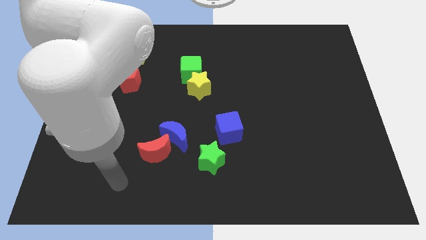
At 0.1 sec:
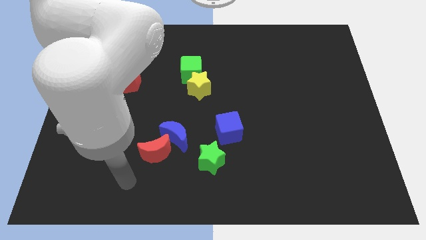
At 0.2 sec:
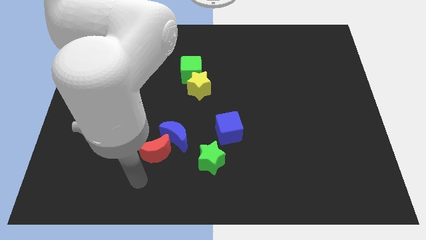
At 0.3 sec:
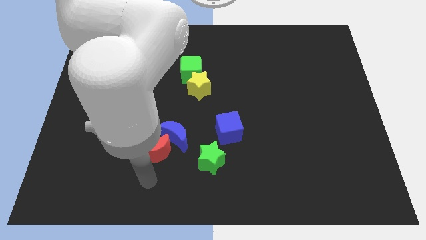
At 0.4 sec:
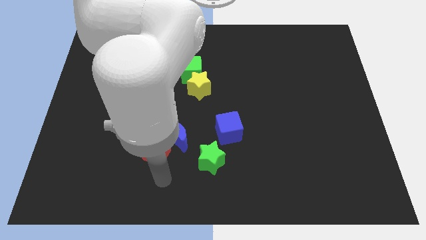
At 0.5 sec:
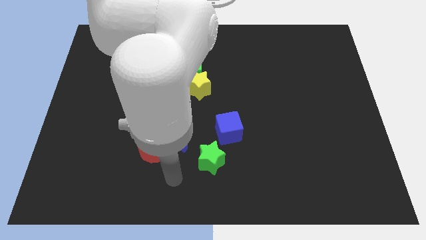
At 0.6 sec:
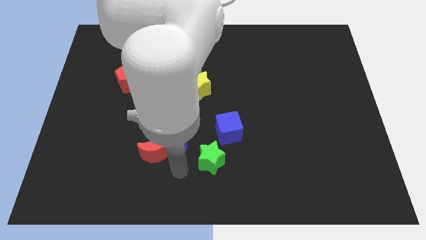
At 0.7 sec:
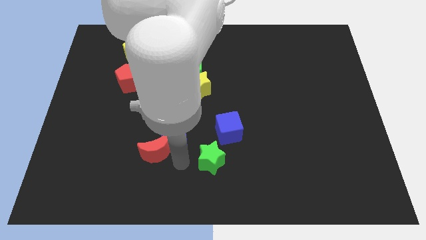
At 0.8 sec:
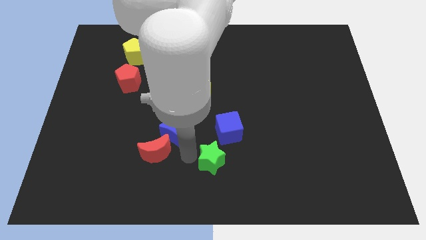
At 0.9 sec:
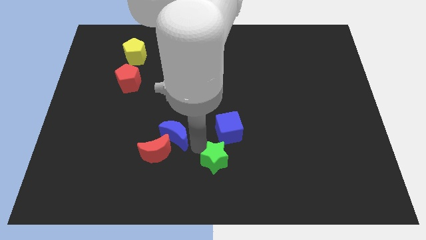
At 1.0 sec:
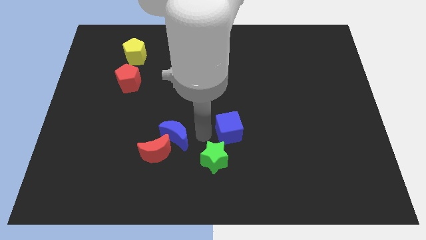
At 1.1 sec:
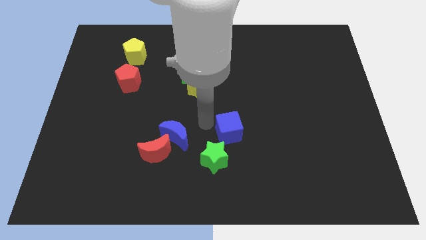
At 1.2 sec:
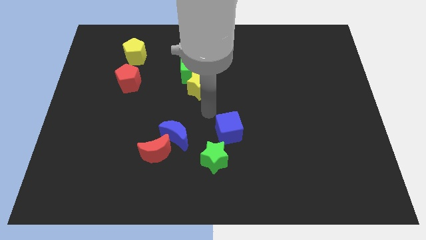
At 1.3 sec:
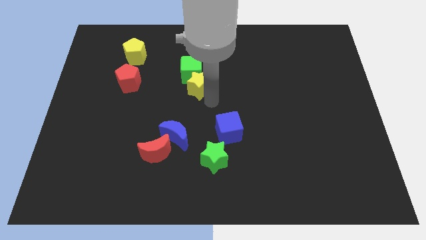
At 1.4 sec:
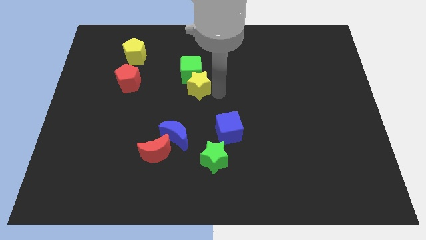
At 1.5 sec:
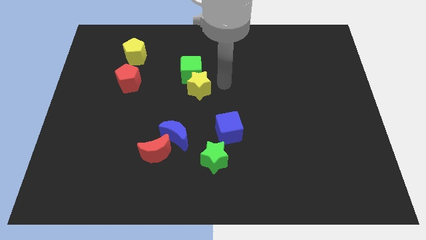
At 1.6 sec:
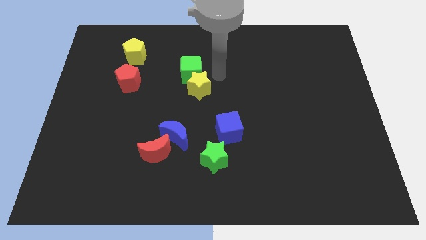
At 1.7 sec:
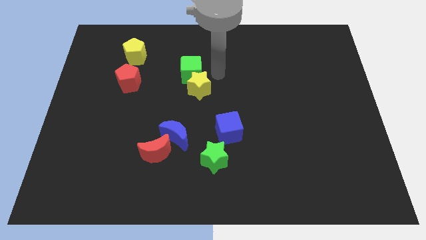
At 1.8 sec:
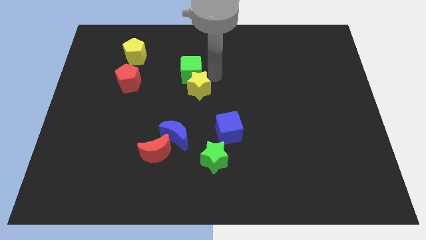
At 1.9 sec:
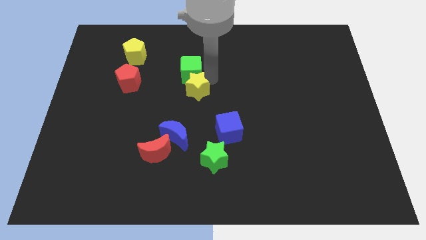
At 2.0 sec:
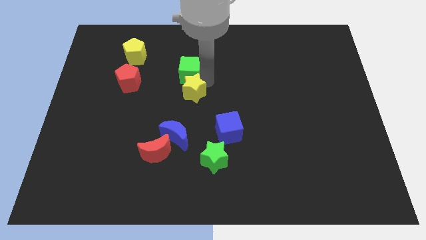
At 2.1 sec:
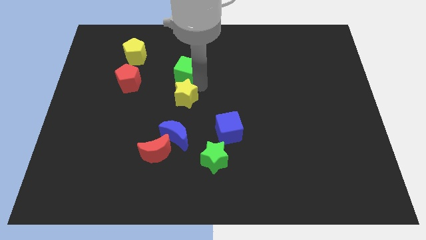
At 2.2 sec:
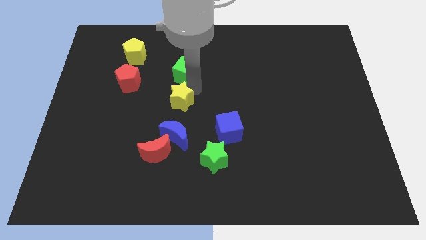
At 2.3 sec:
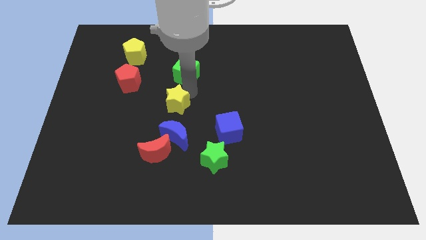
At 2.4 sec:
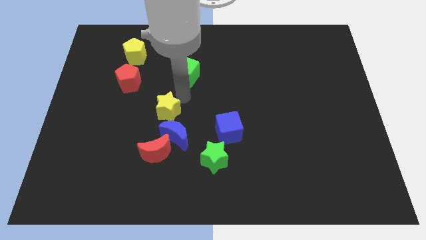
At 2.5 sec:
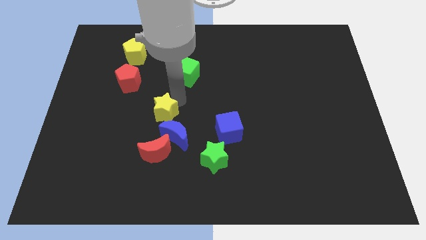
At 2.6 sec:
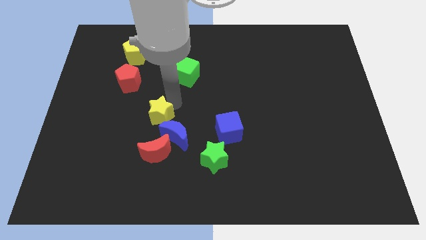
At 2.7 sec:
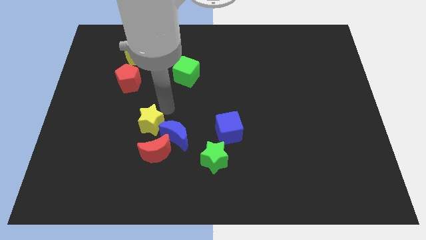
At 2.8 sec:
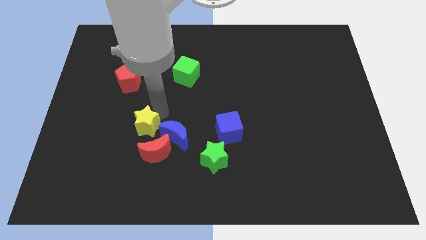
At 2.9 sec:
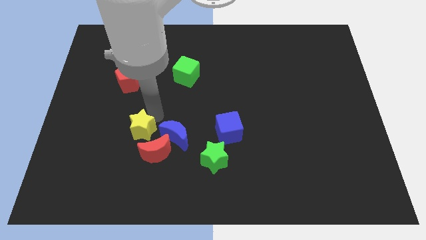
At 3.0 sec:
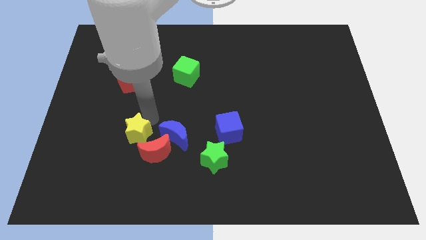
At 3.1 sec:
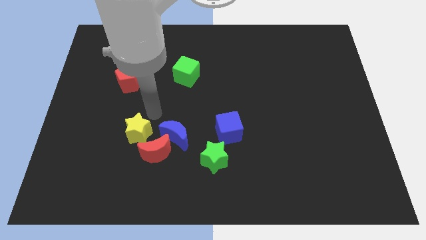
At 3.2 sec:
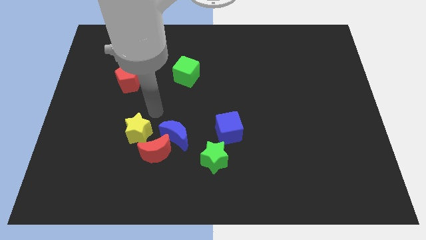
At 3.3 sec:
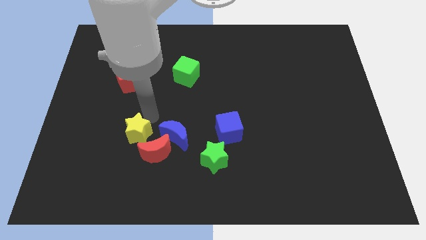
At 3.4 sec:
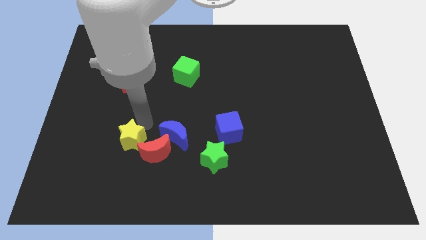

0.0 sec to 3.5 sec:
move the yellow star down and then left

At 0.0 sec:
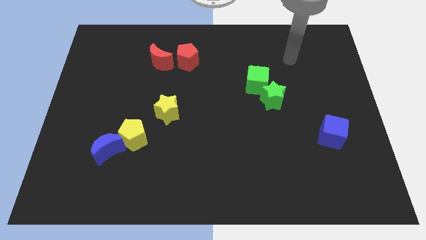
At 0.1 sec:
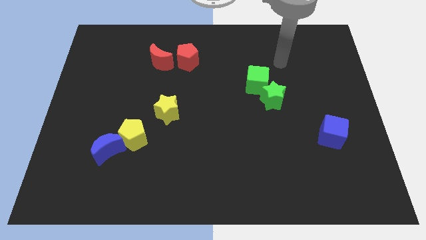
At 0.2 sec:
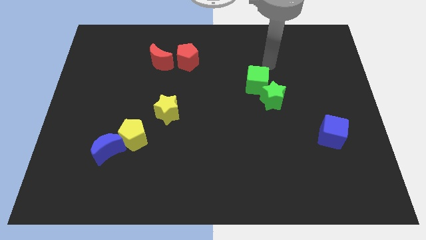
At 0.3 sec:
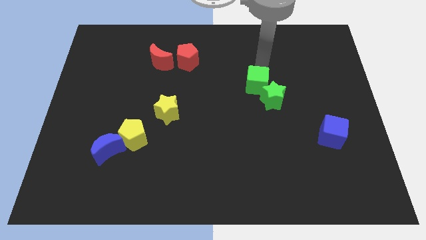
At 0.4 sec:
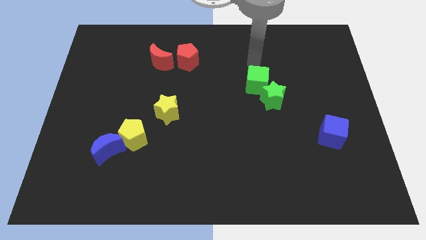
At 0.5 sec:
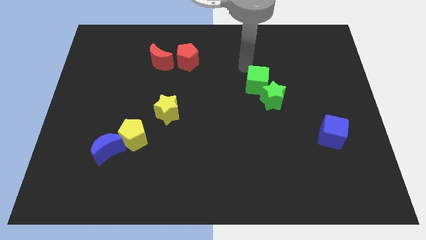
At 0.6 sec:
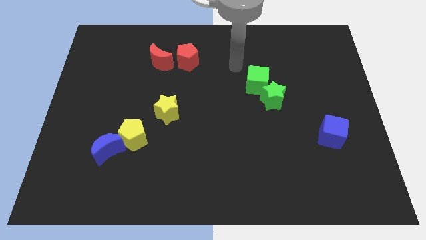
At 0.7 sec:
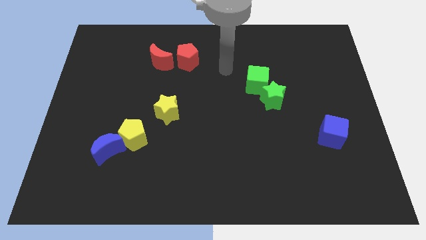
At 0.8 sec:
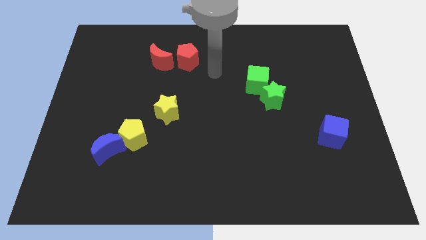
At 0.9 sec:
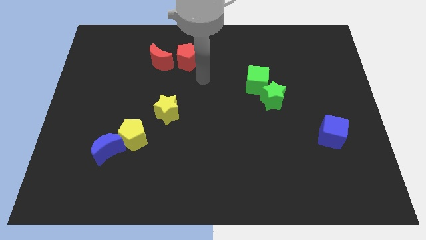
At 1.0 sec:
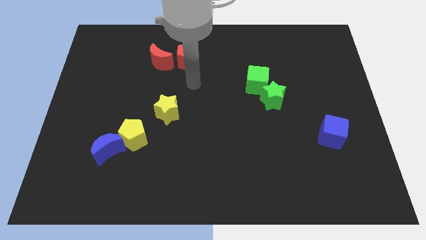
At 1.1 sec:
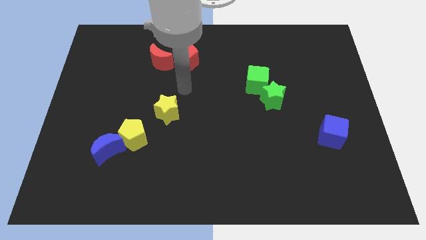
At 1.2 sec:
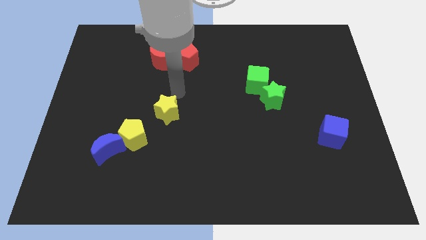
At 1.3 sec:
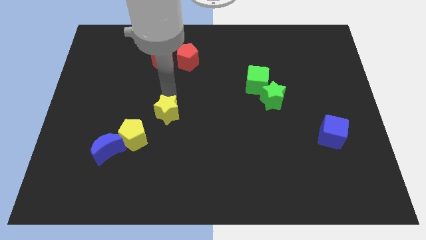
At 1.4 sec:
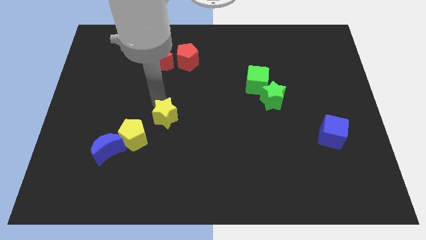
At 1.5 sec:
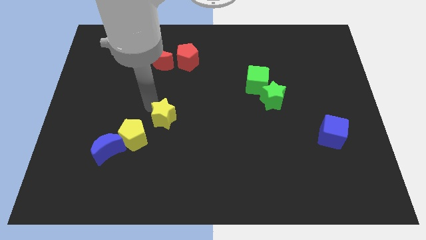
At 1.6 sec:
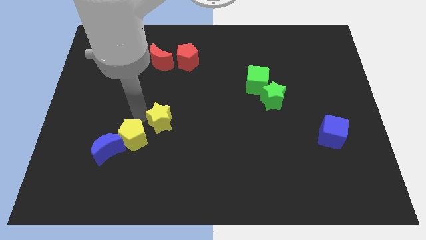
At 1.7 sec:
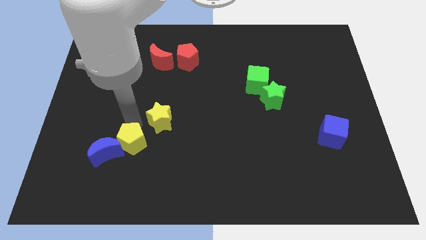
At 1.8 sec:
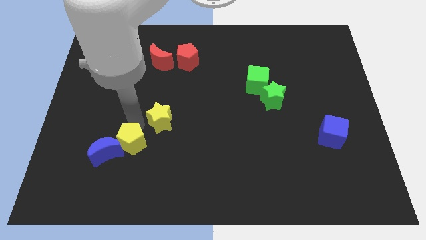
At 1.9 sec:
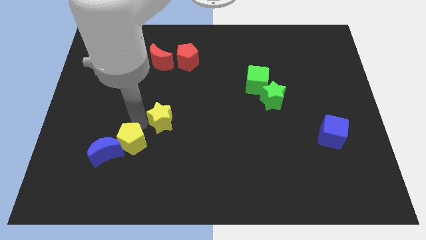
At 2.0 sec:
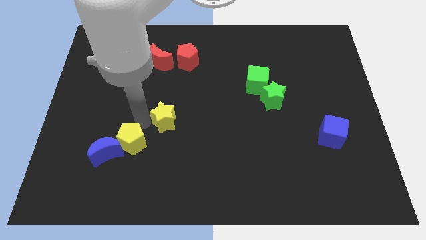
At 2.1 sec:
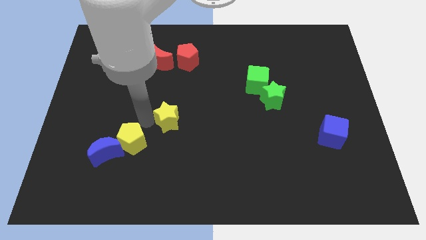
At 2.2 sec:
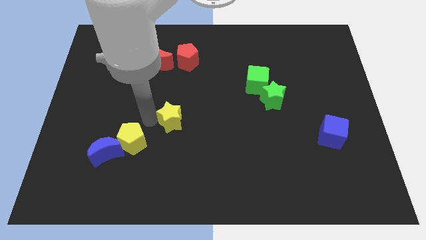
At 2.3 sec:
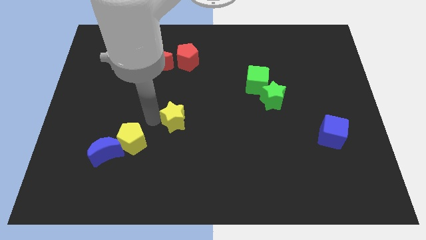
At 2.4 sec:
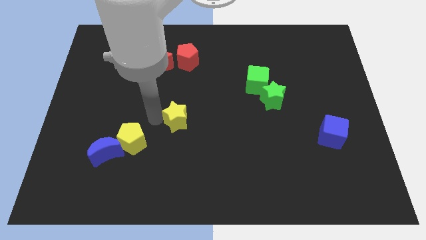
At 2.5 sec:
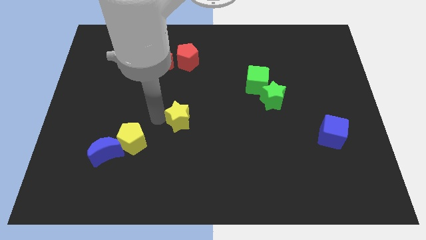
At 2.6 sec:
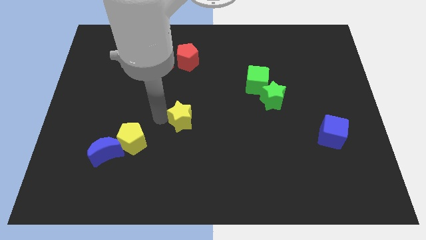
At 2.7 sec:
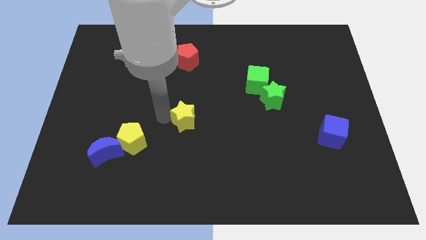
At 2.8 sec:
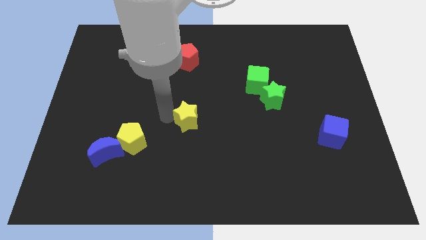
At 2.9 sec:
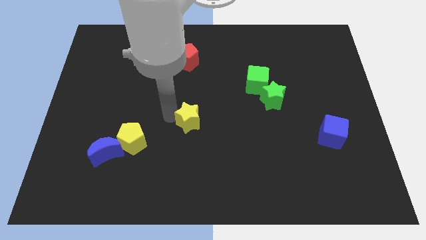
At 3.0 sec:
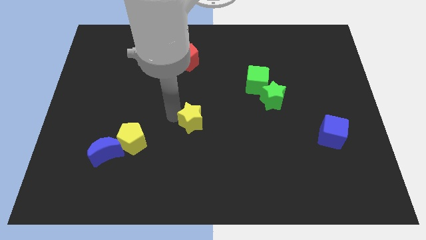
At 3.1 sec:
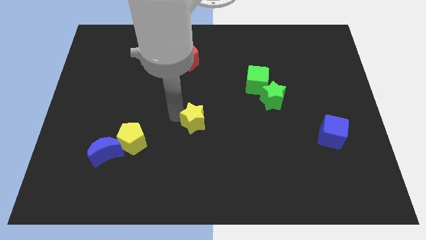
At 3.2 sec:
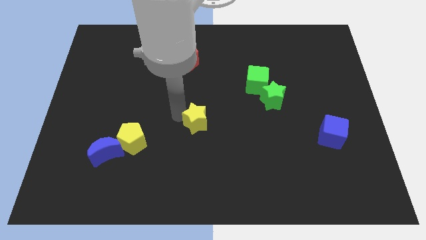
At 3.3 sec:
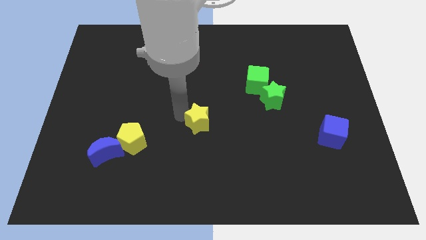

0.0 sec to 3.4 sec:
move the yellow star a little right

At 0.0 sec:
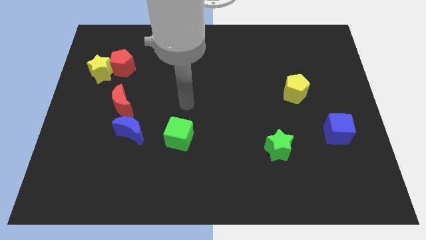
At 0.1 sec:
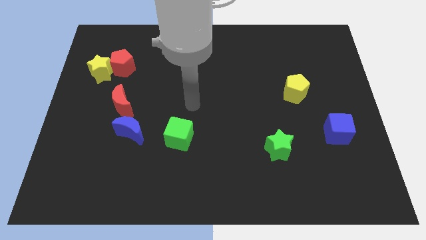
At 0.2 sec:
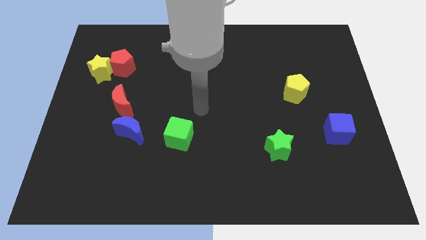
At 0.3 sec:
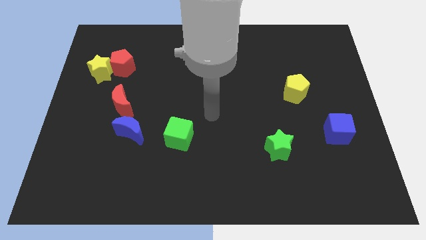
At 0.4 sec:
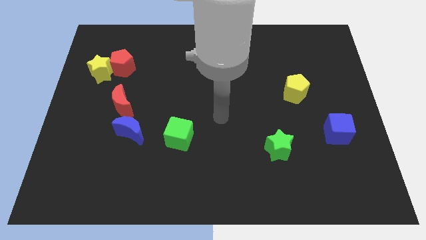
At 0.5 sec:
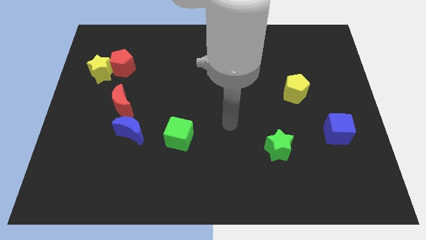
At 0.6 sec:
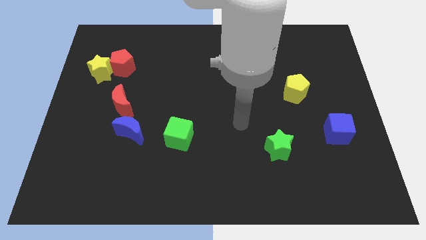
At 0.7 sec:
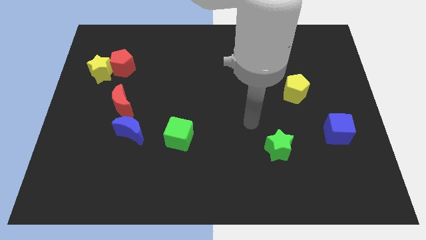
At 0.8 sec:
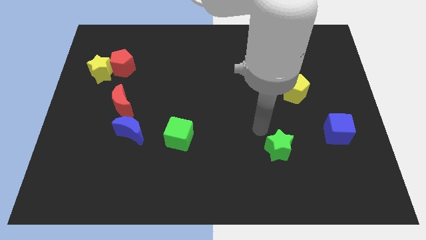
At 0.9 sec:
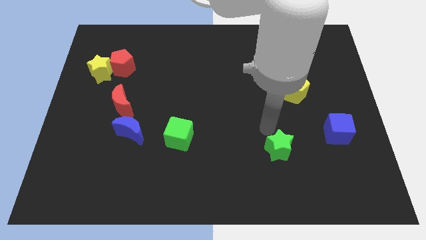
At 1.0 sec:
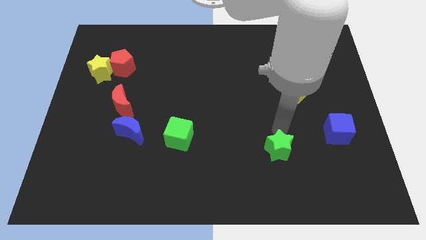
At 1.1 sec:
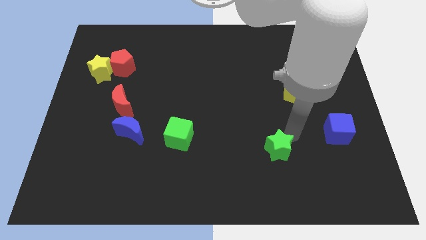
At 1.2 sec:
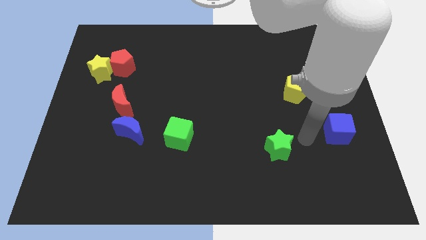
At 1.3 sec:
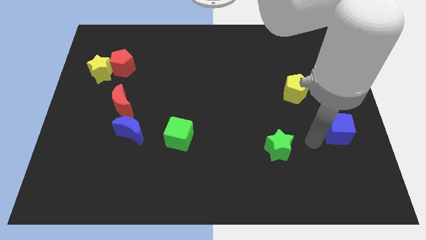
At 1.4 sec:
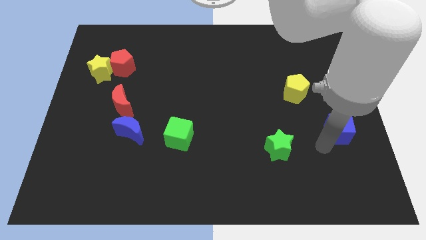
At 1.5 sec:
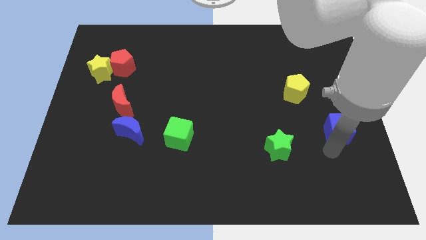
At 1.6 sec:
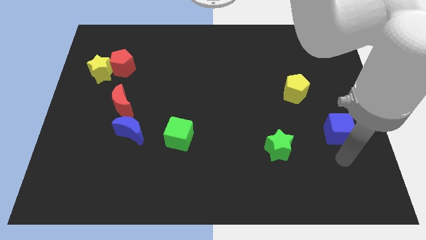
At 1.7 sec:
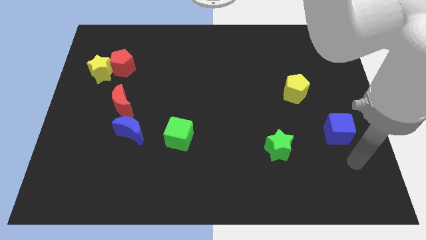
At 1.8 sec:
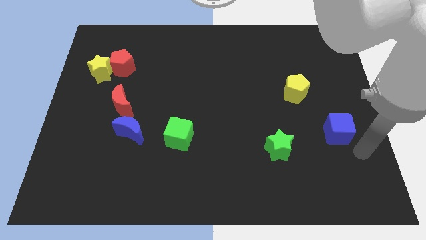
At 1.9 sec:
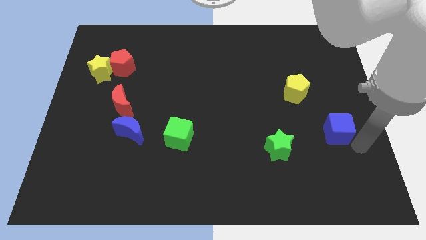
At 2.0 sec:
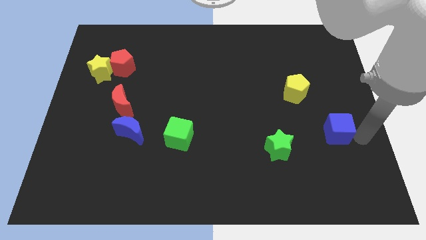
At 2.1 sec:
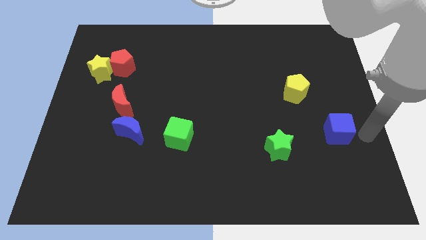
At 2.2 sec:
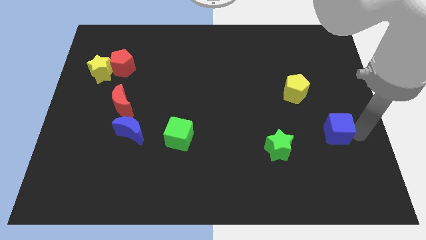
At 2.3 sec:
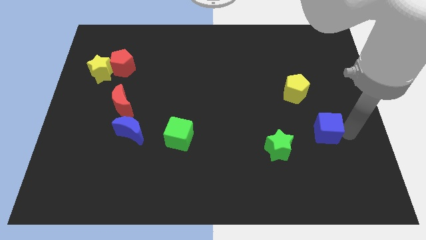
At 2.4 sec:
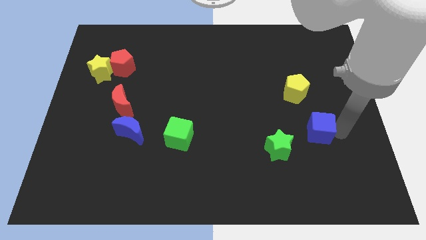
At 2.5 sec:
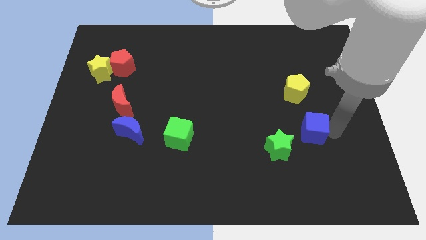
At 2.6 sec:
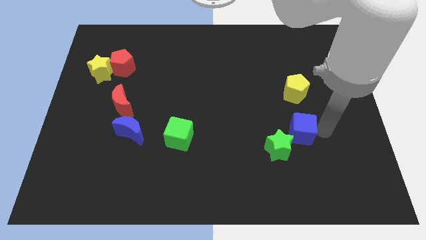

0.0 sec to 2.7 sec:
slide the blue cube left somewhat
